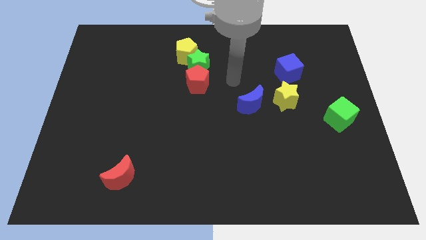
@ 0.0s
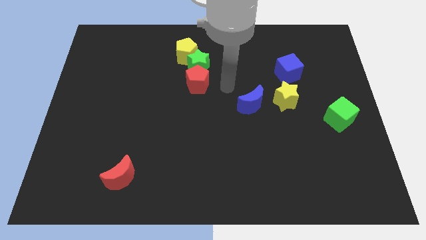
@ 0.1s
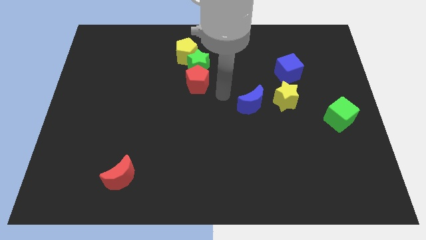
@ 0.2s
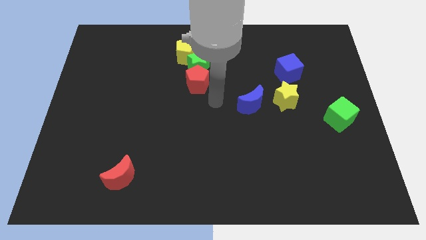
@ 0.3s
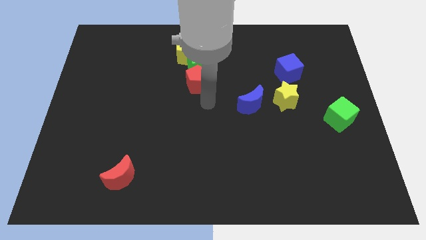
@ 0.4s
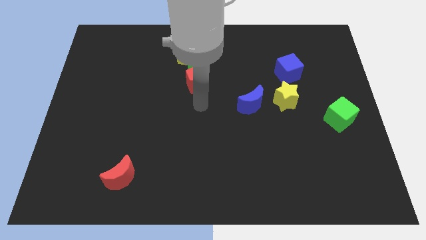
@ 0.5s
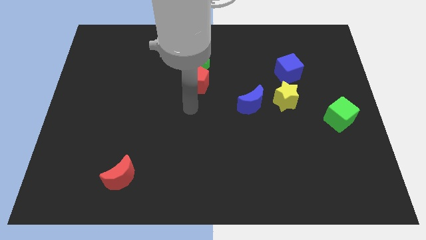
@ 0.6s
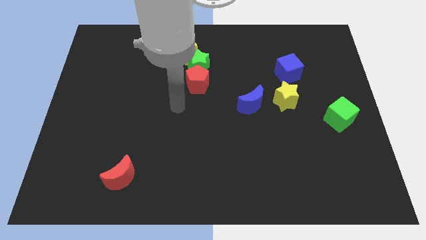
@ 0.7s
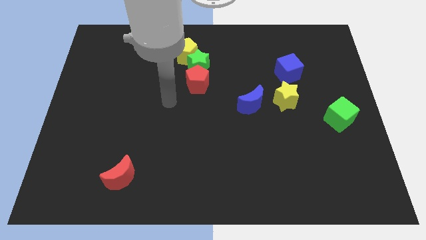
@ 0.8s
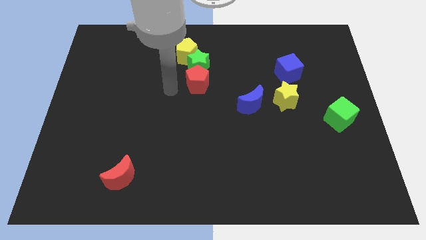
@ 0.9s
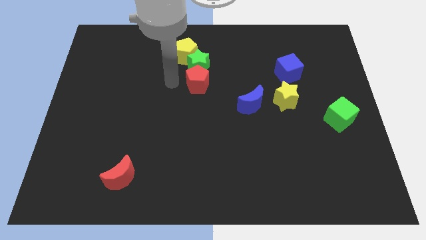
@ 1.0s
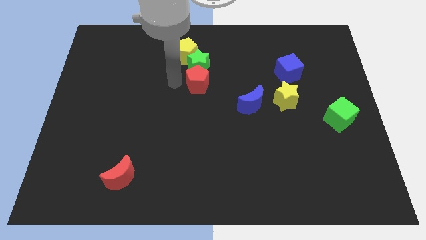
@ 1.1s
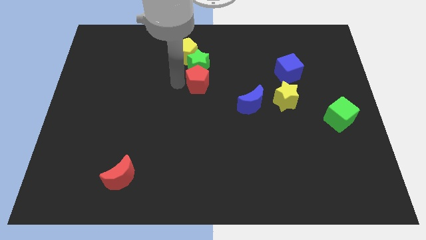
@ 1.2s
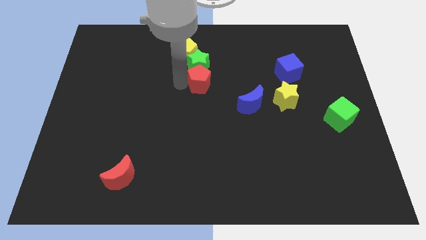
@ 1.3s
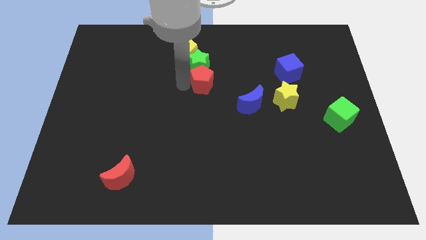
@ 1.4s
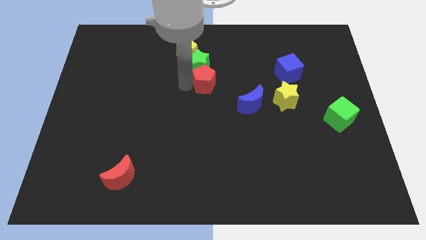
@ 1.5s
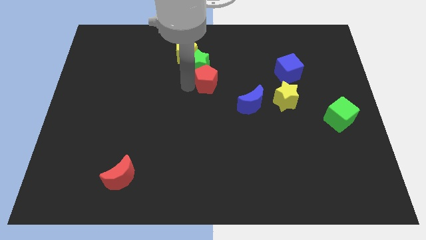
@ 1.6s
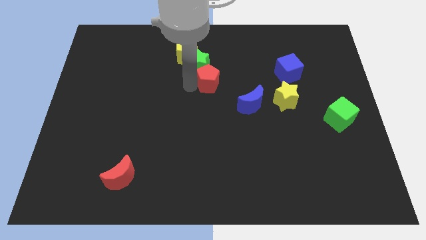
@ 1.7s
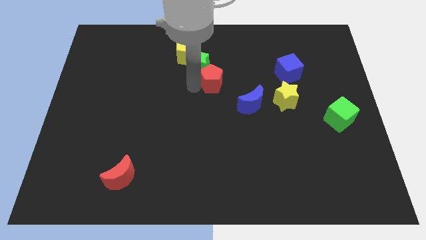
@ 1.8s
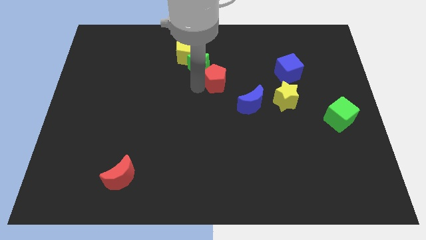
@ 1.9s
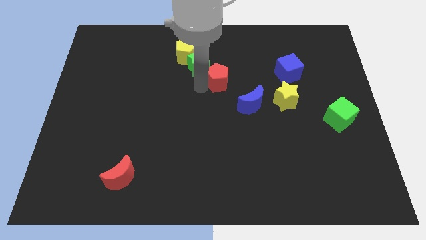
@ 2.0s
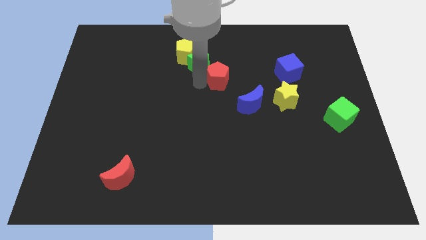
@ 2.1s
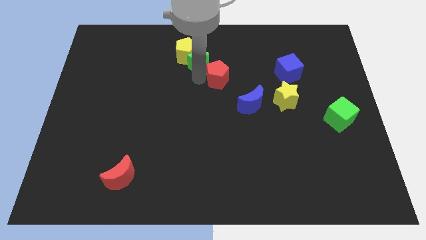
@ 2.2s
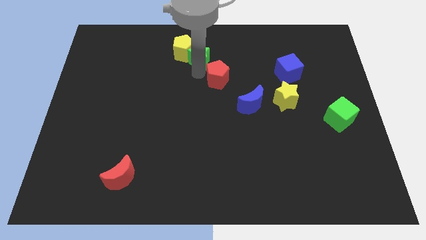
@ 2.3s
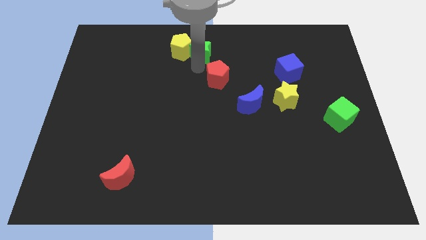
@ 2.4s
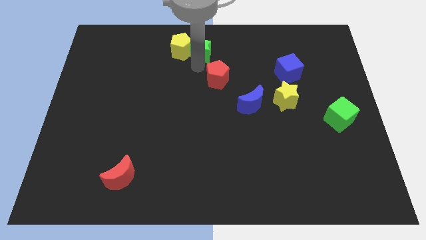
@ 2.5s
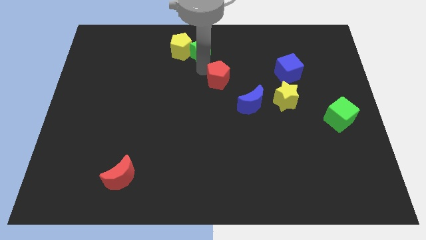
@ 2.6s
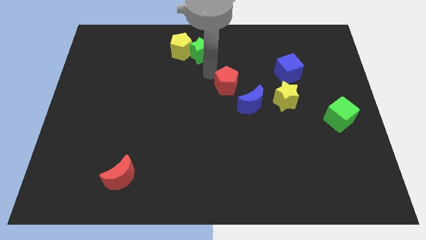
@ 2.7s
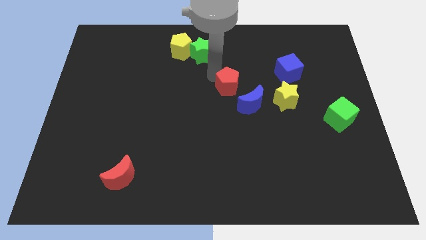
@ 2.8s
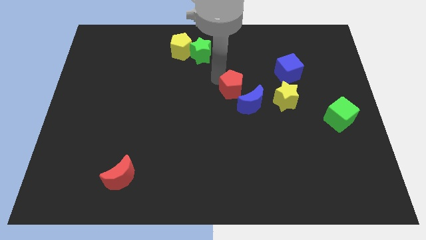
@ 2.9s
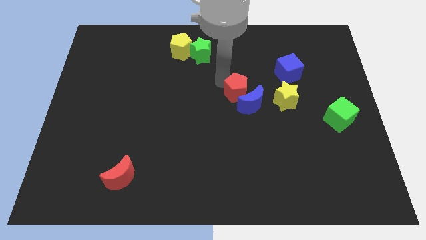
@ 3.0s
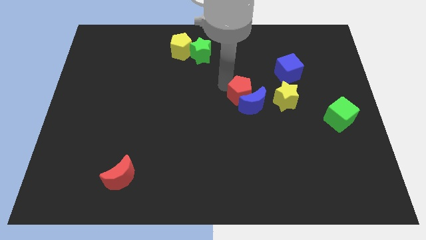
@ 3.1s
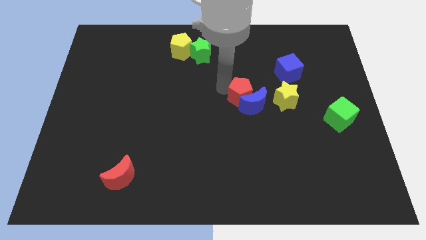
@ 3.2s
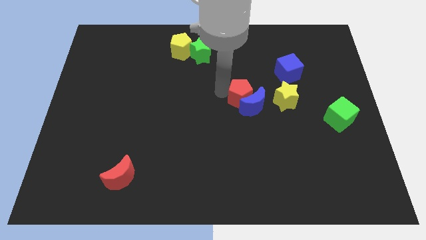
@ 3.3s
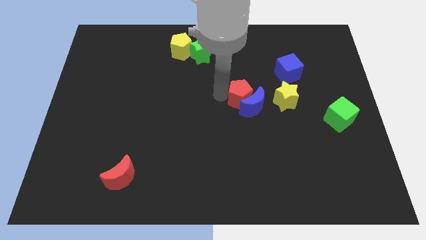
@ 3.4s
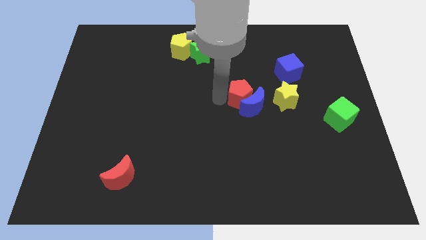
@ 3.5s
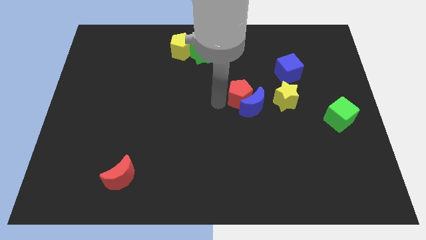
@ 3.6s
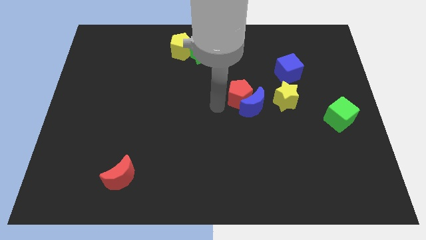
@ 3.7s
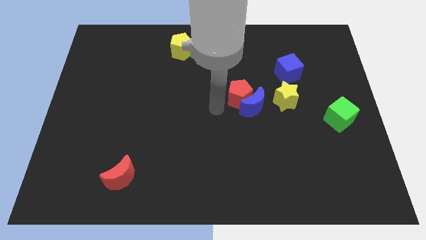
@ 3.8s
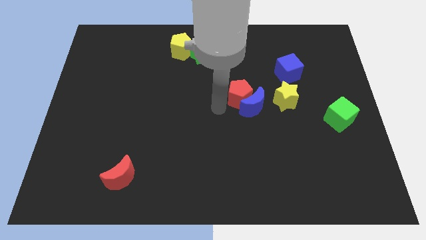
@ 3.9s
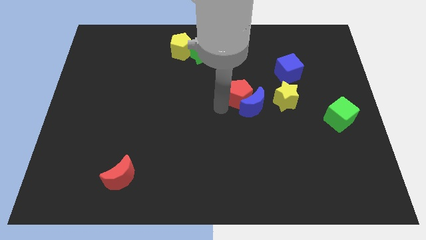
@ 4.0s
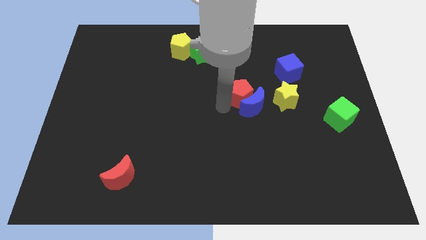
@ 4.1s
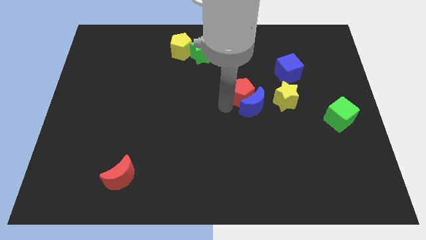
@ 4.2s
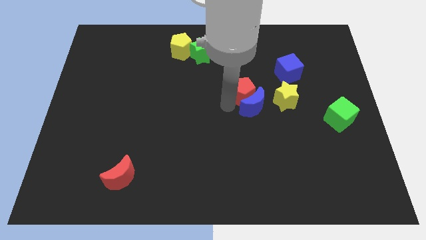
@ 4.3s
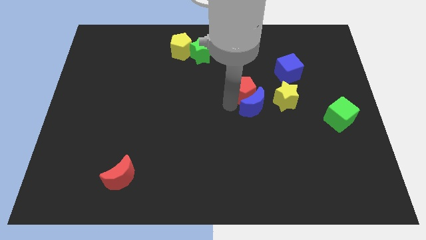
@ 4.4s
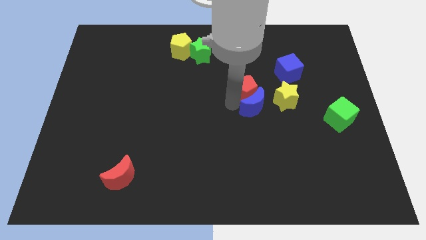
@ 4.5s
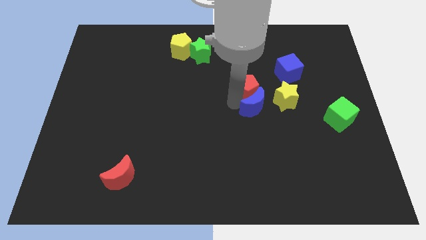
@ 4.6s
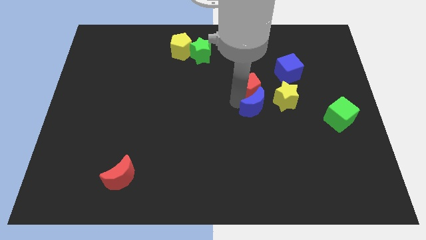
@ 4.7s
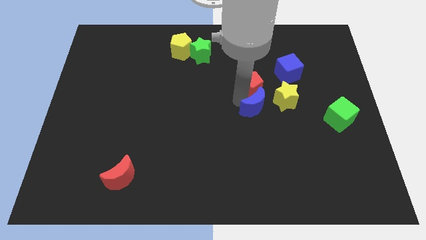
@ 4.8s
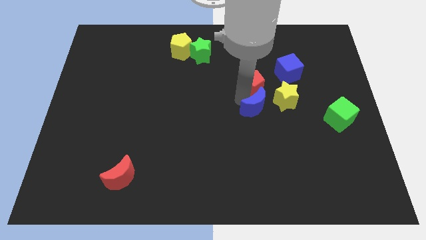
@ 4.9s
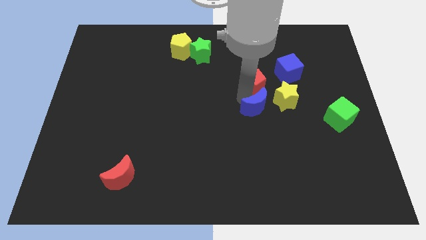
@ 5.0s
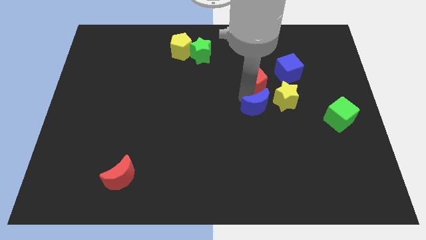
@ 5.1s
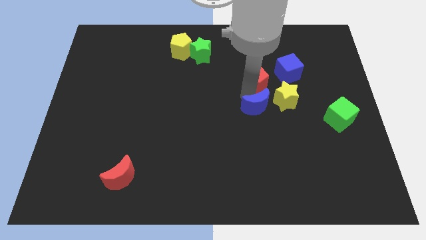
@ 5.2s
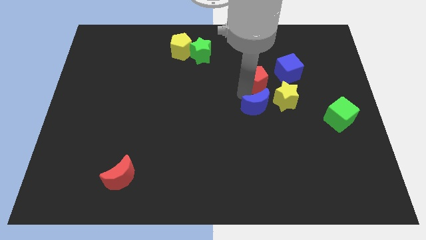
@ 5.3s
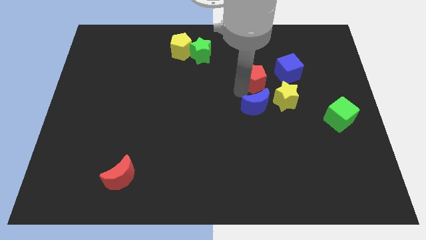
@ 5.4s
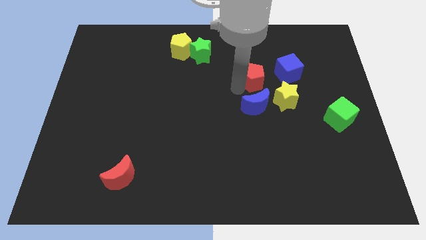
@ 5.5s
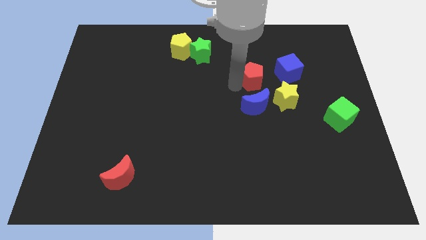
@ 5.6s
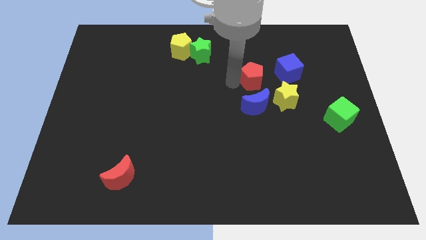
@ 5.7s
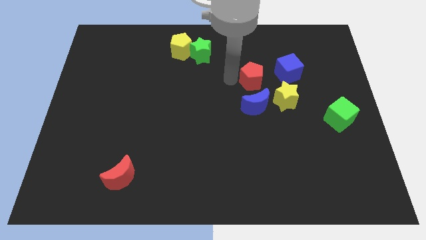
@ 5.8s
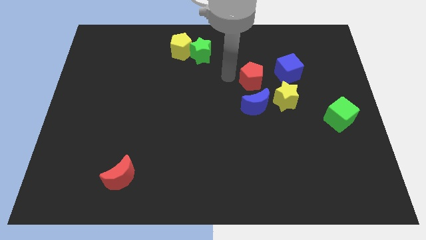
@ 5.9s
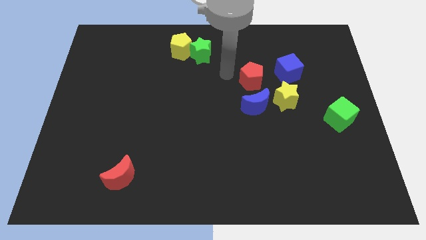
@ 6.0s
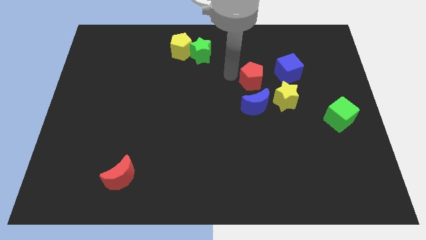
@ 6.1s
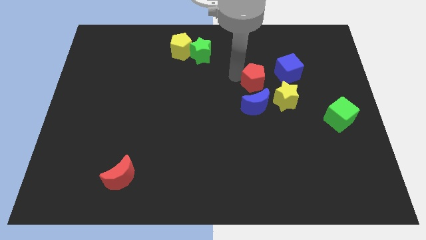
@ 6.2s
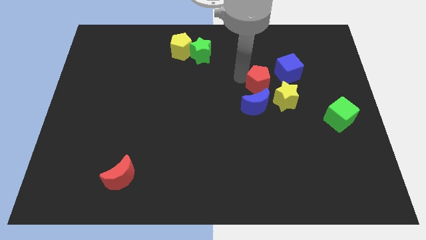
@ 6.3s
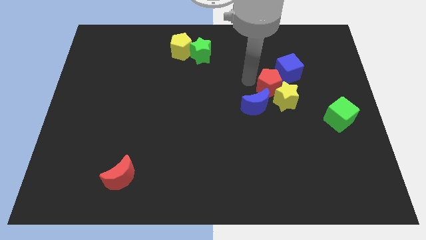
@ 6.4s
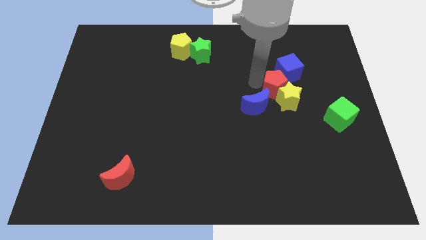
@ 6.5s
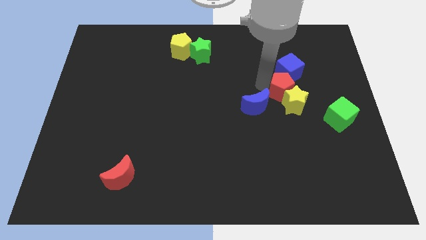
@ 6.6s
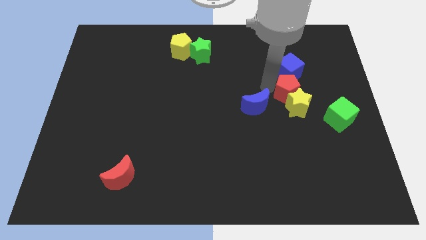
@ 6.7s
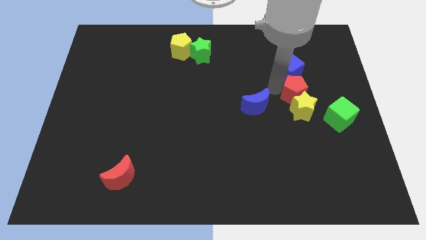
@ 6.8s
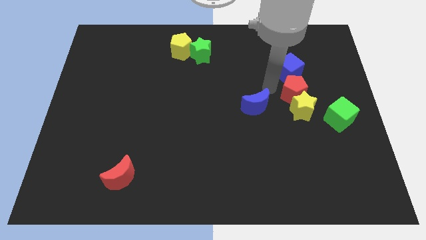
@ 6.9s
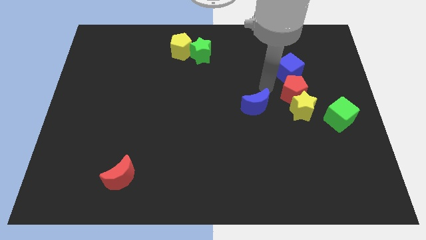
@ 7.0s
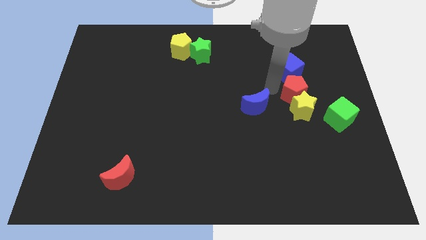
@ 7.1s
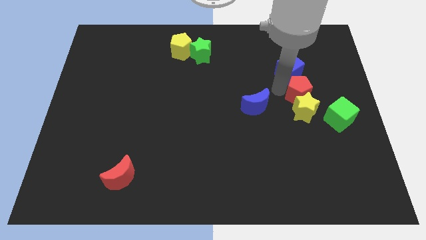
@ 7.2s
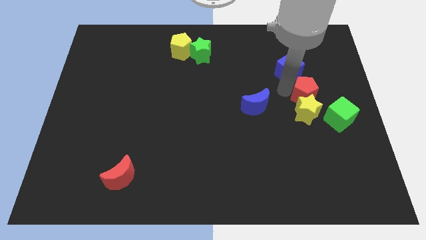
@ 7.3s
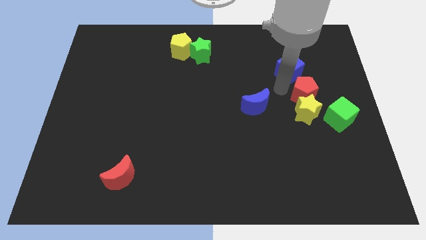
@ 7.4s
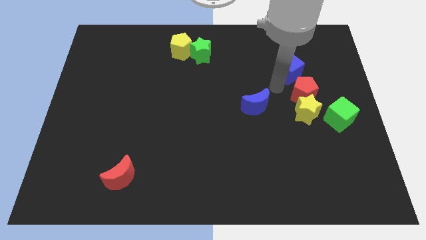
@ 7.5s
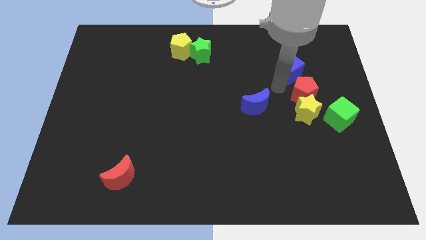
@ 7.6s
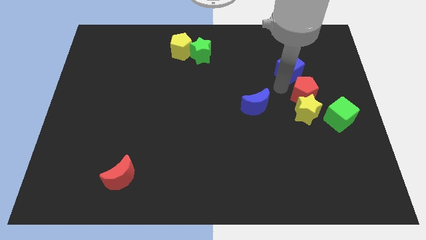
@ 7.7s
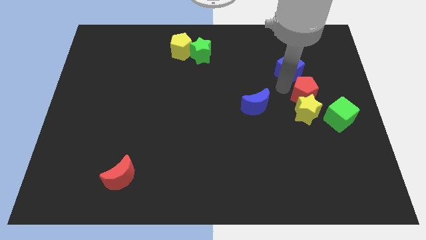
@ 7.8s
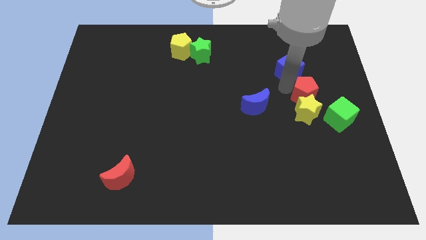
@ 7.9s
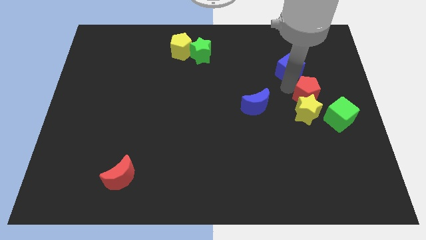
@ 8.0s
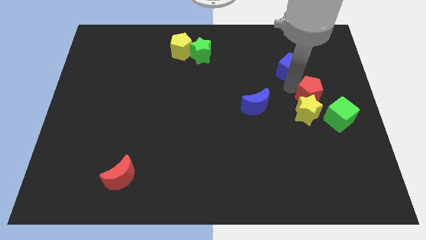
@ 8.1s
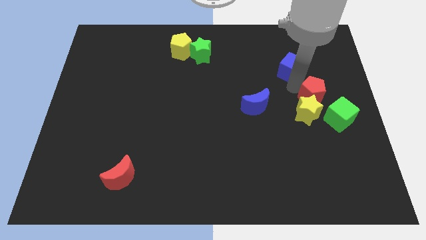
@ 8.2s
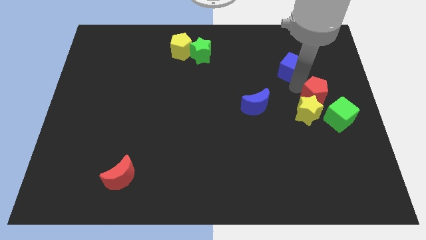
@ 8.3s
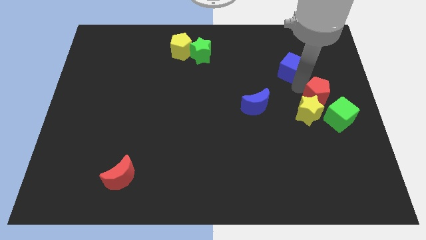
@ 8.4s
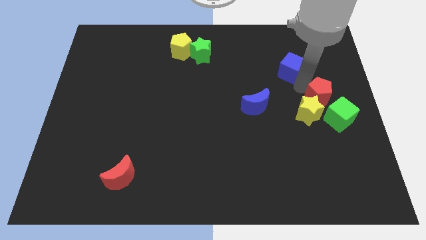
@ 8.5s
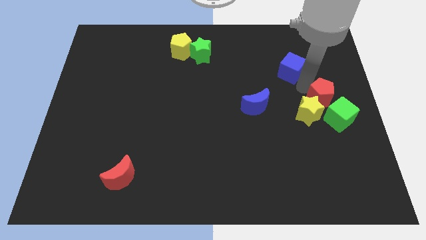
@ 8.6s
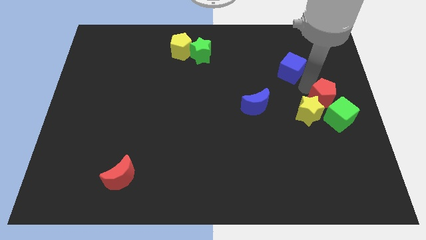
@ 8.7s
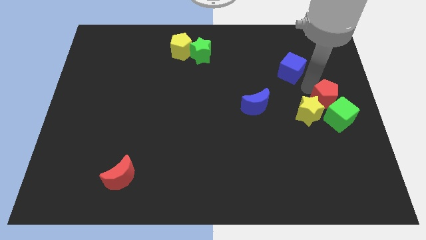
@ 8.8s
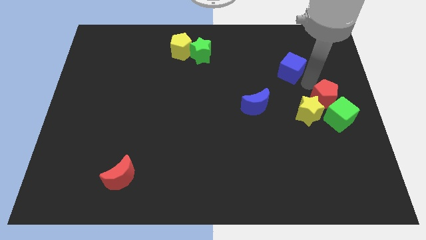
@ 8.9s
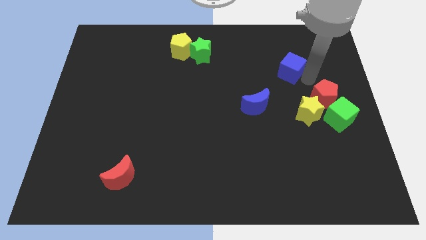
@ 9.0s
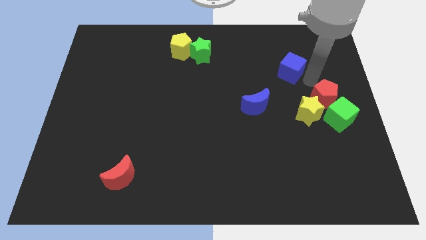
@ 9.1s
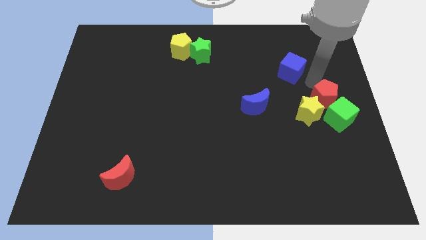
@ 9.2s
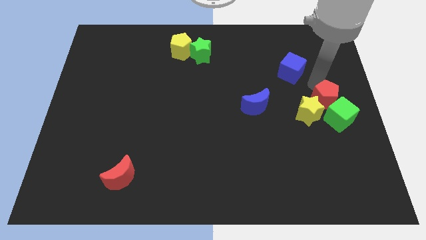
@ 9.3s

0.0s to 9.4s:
move the red pentagon close to the green cube
